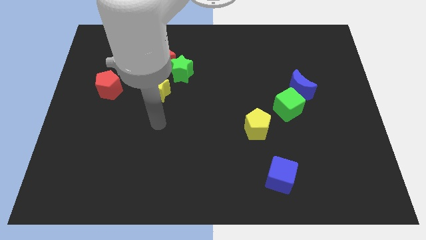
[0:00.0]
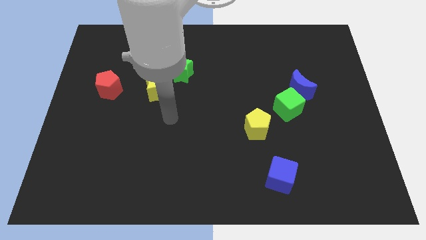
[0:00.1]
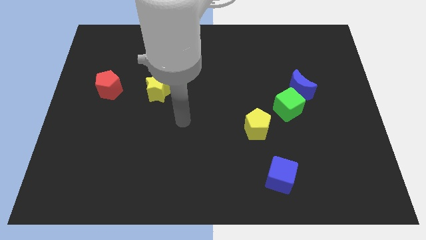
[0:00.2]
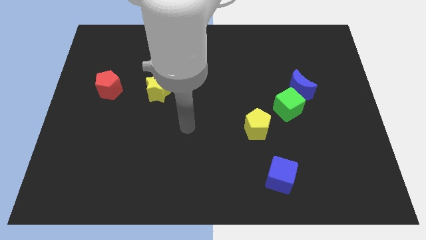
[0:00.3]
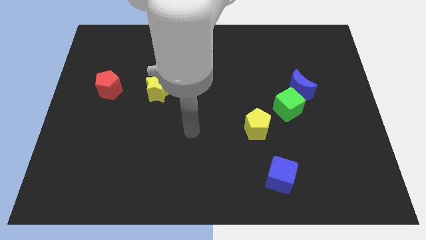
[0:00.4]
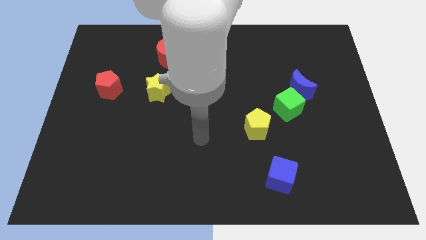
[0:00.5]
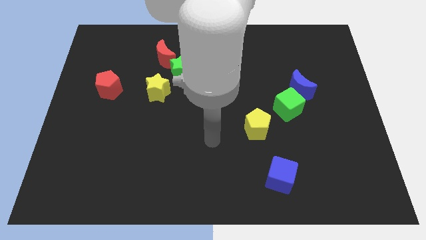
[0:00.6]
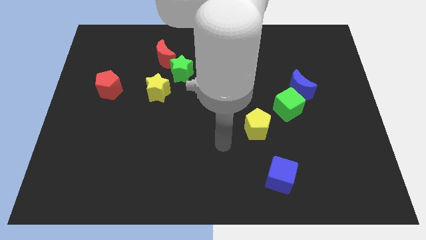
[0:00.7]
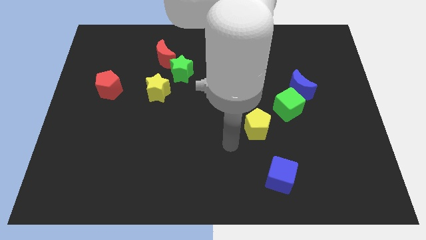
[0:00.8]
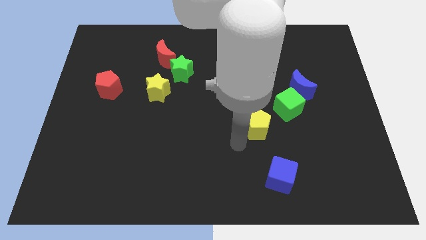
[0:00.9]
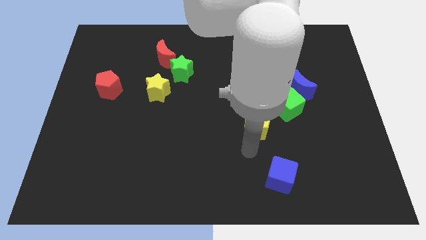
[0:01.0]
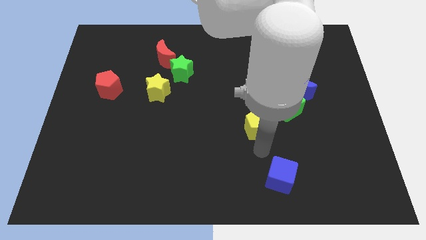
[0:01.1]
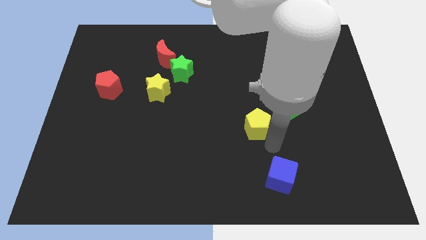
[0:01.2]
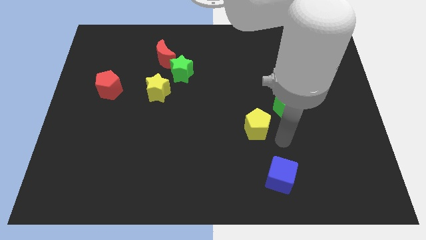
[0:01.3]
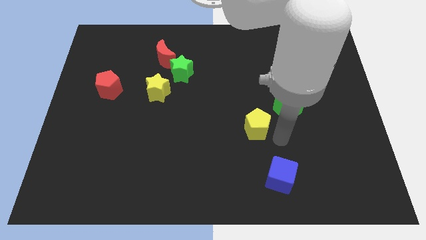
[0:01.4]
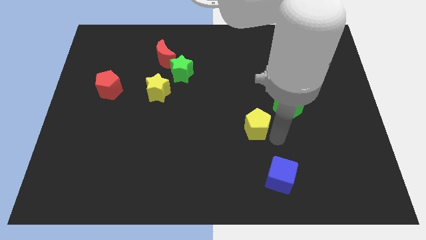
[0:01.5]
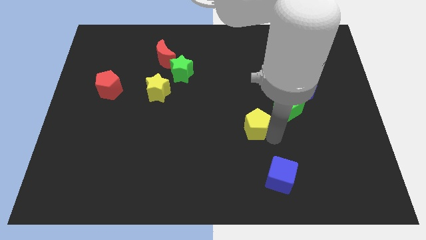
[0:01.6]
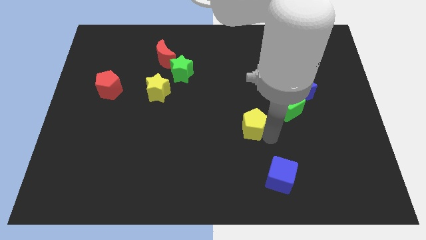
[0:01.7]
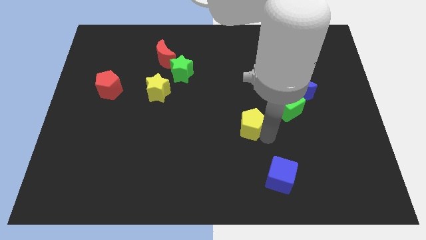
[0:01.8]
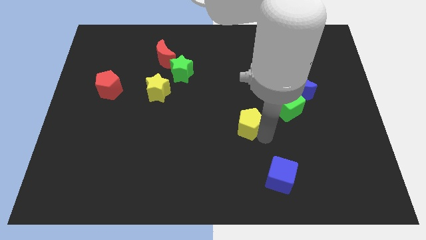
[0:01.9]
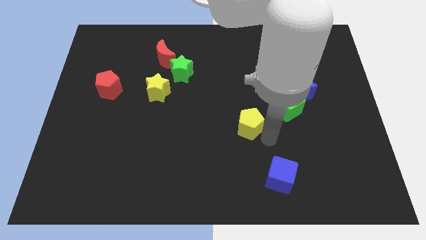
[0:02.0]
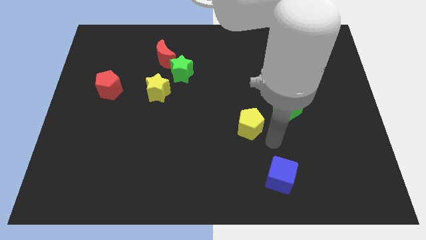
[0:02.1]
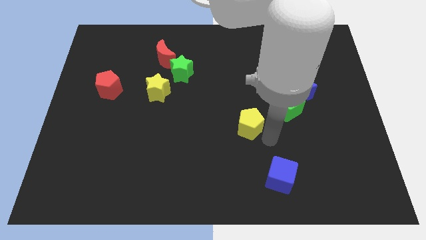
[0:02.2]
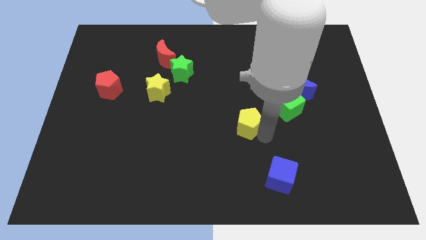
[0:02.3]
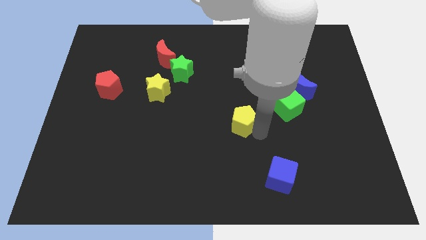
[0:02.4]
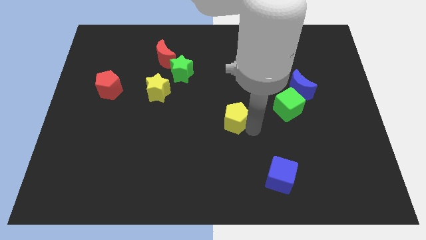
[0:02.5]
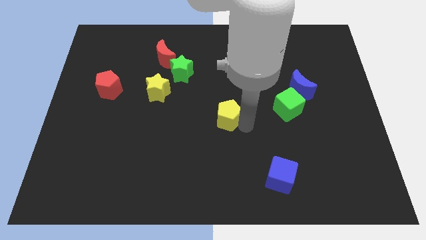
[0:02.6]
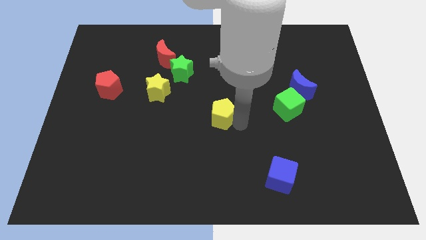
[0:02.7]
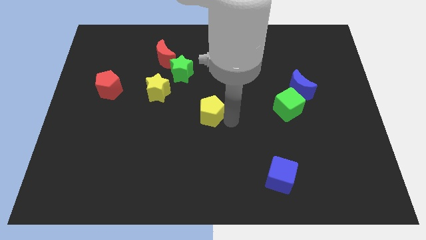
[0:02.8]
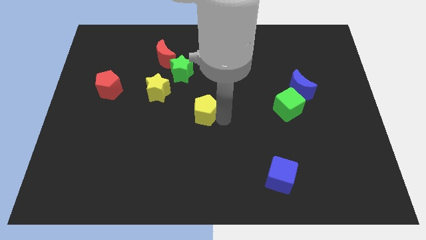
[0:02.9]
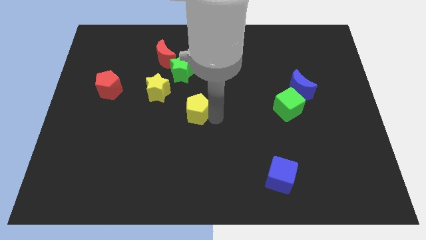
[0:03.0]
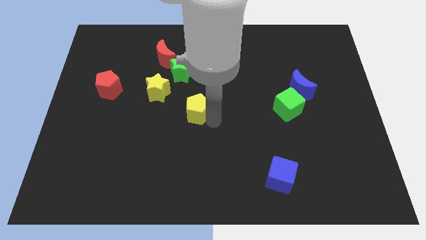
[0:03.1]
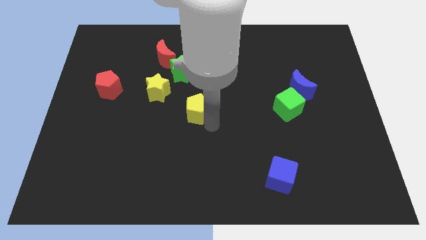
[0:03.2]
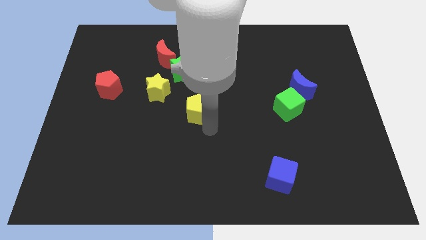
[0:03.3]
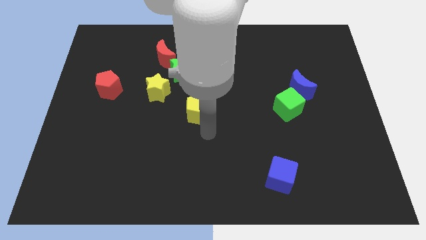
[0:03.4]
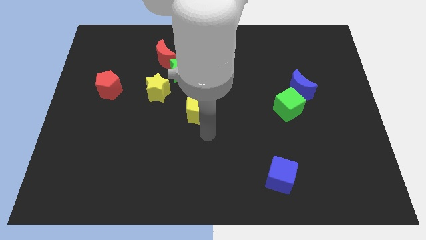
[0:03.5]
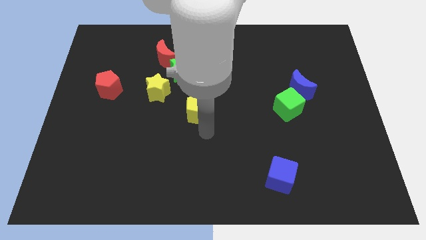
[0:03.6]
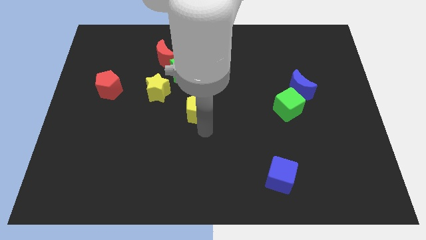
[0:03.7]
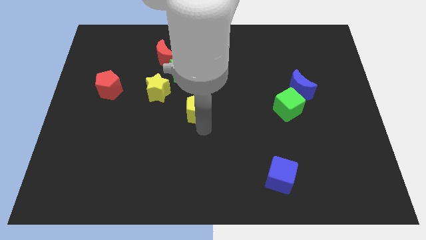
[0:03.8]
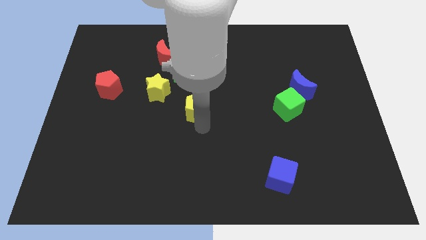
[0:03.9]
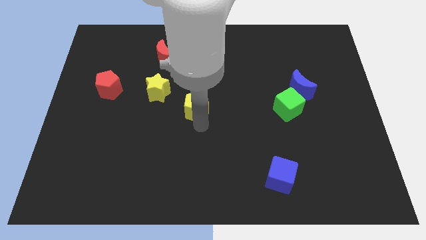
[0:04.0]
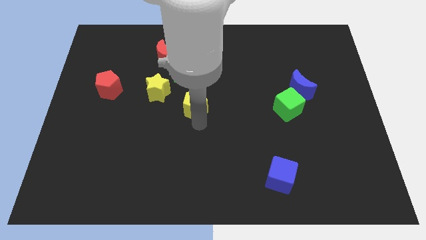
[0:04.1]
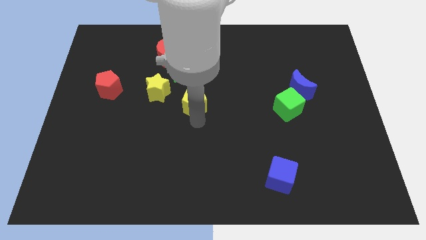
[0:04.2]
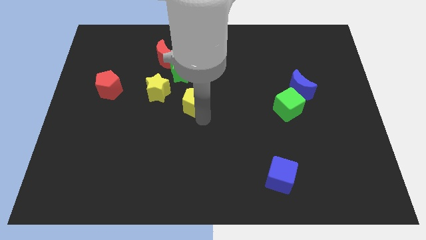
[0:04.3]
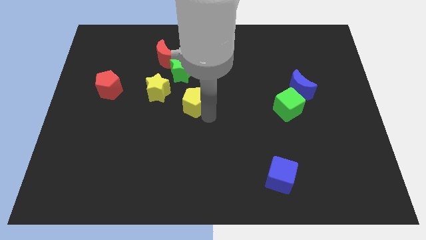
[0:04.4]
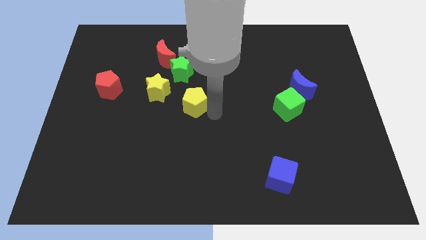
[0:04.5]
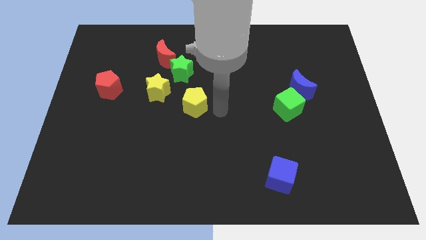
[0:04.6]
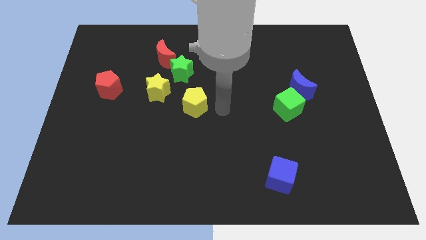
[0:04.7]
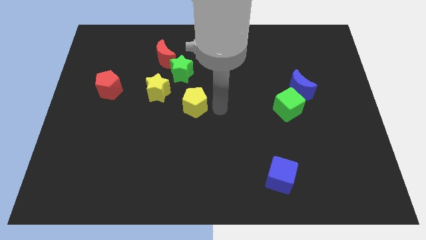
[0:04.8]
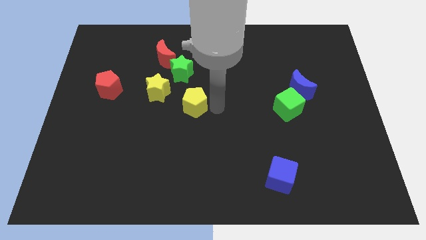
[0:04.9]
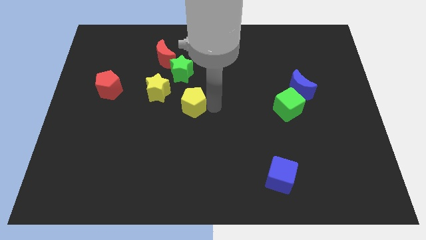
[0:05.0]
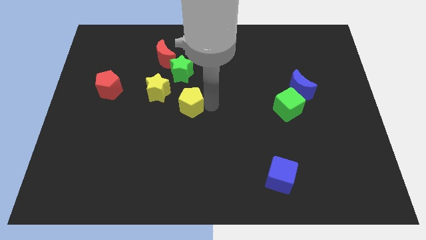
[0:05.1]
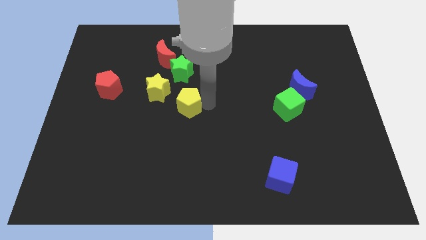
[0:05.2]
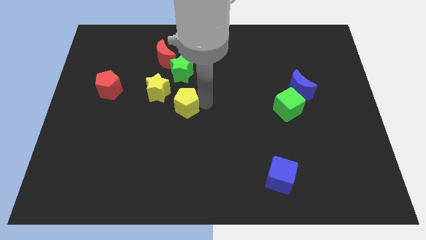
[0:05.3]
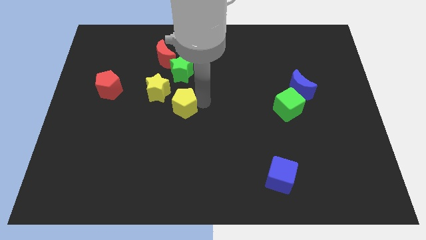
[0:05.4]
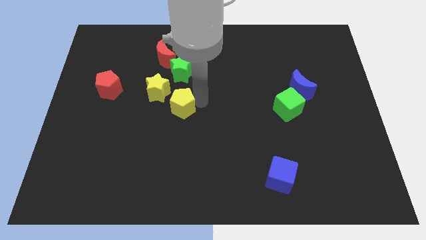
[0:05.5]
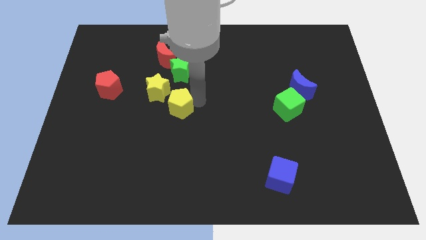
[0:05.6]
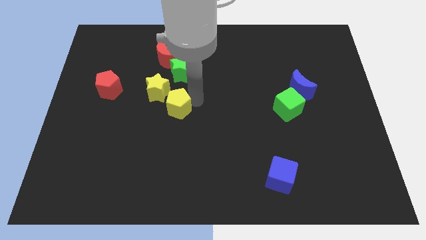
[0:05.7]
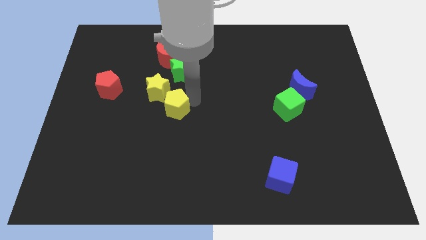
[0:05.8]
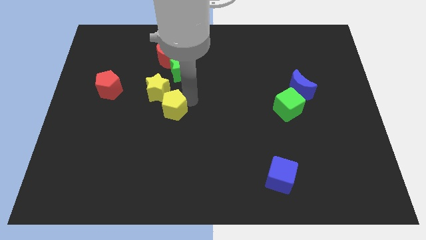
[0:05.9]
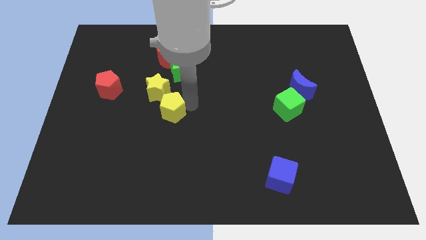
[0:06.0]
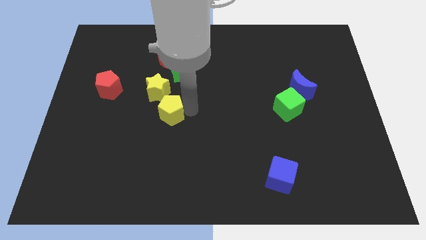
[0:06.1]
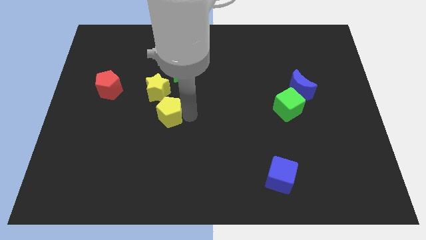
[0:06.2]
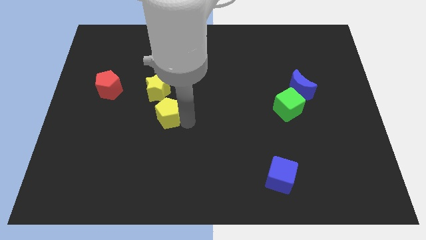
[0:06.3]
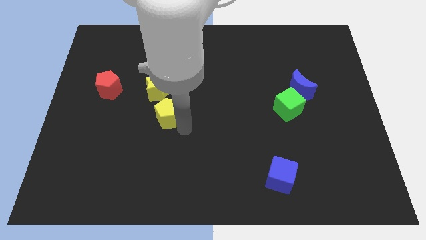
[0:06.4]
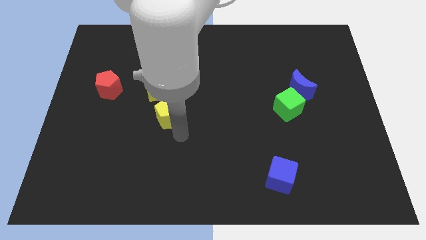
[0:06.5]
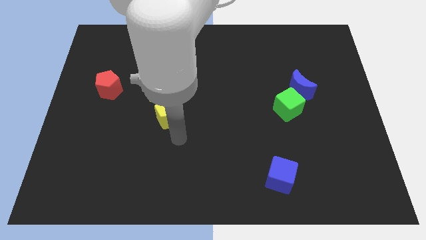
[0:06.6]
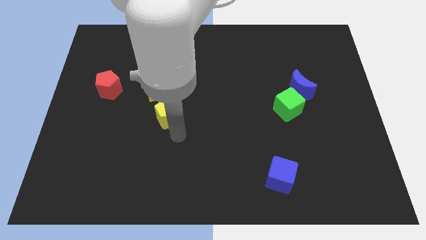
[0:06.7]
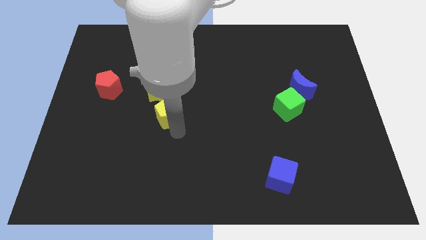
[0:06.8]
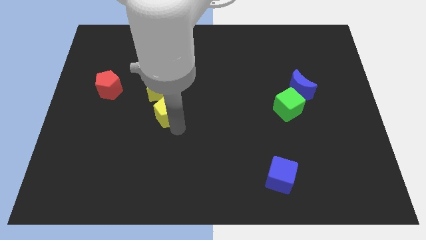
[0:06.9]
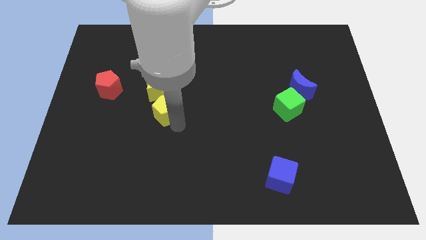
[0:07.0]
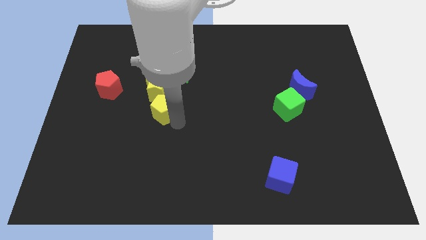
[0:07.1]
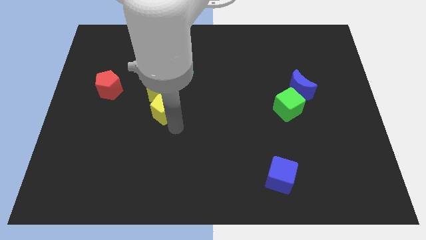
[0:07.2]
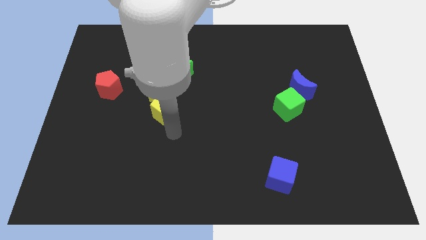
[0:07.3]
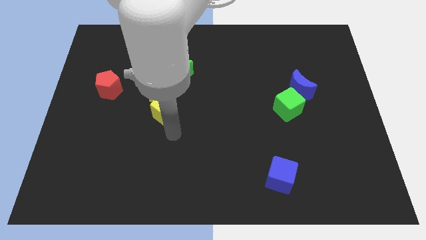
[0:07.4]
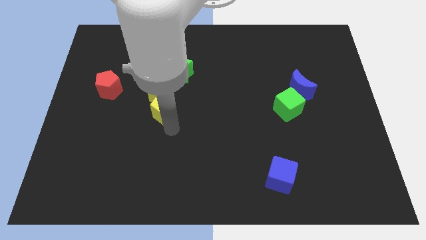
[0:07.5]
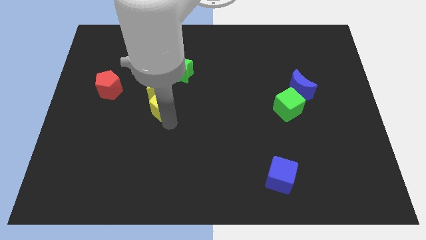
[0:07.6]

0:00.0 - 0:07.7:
put the yellow pentagon towards the yellow star

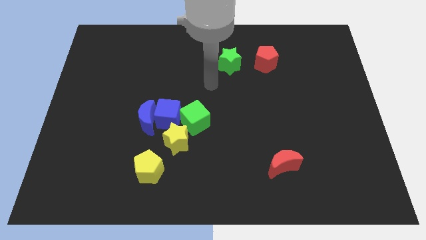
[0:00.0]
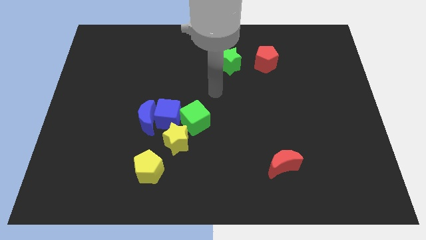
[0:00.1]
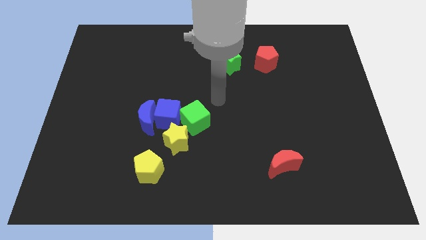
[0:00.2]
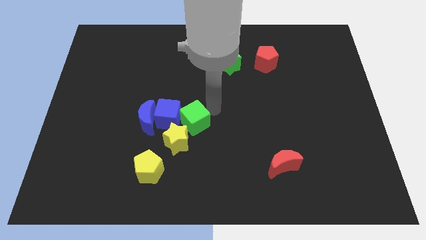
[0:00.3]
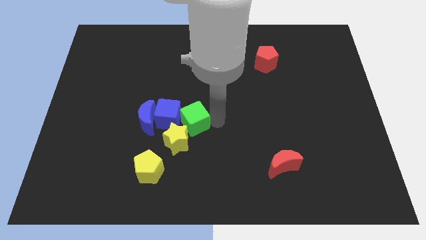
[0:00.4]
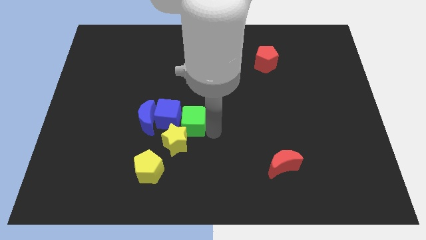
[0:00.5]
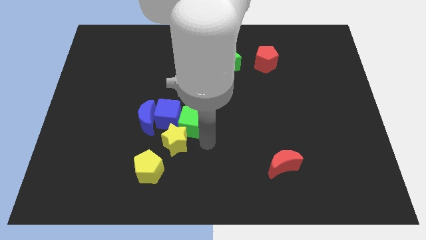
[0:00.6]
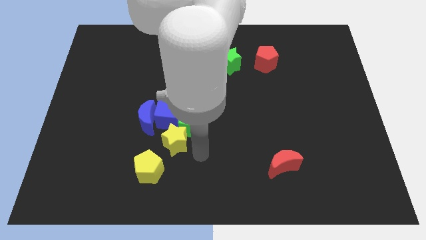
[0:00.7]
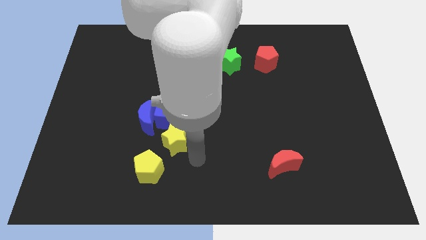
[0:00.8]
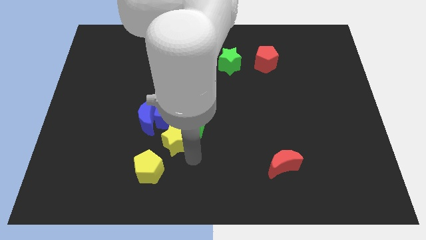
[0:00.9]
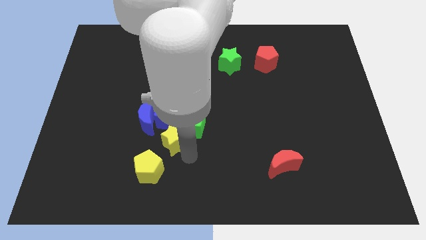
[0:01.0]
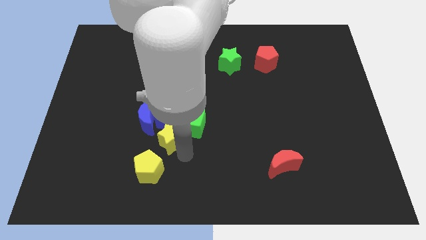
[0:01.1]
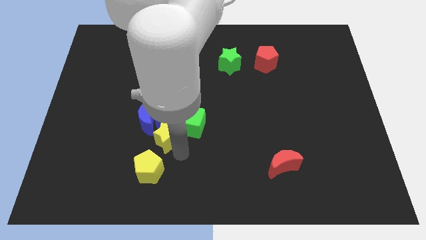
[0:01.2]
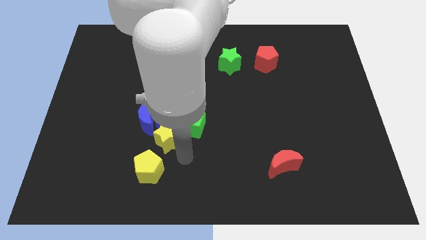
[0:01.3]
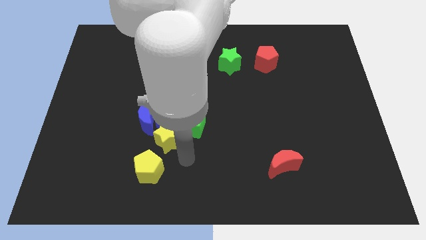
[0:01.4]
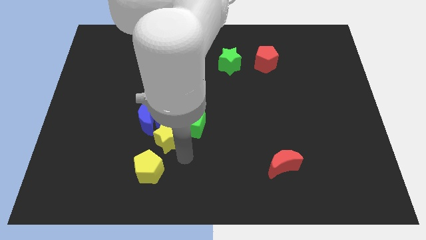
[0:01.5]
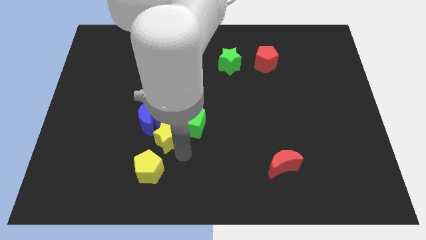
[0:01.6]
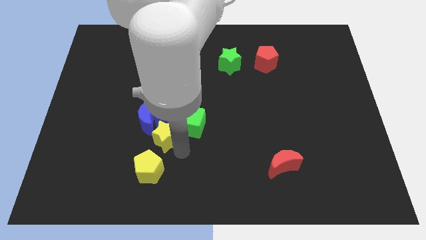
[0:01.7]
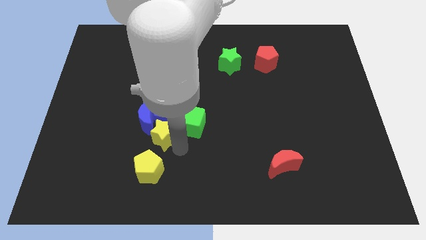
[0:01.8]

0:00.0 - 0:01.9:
put the yellow star towards the blue moon
